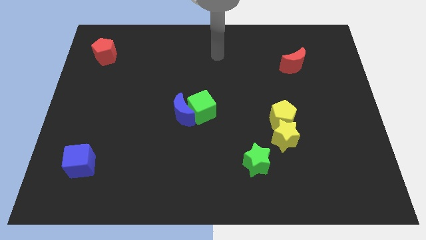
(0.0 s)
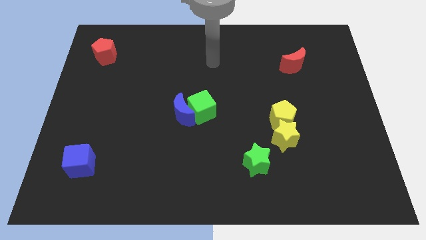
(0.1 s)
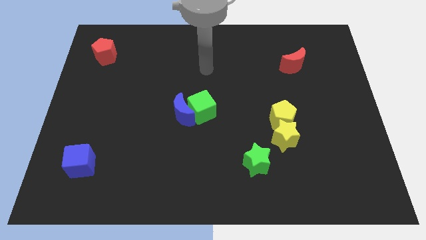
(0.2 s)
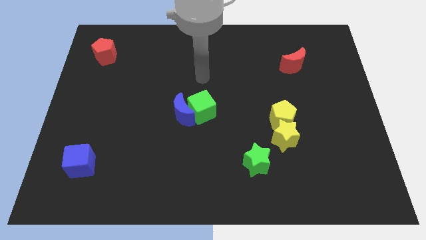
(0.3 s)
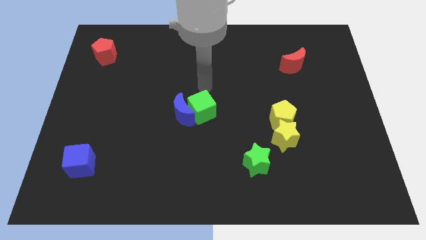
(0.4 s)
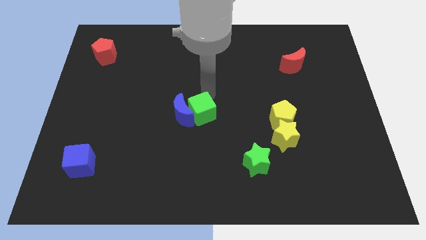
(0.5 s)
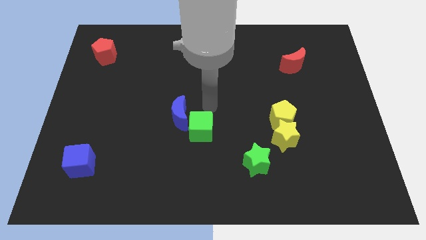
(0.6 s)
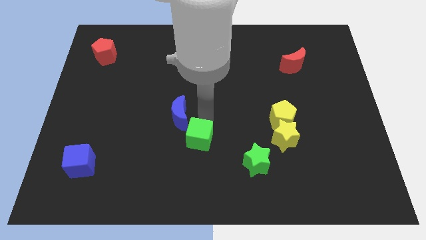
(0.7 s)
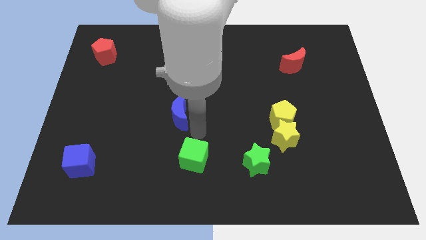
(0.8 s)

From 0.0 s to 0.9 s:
pull the blue moon apart from the green cube

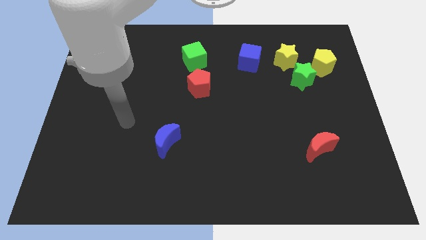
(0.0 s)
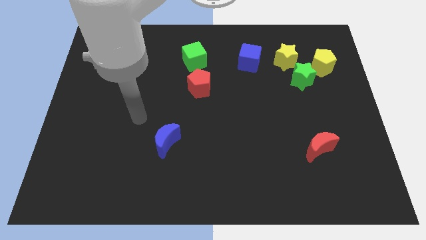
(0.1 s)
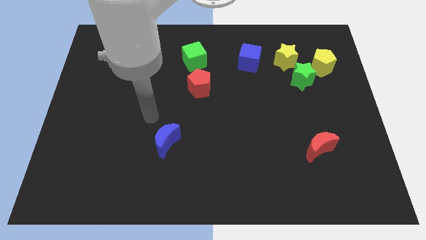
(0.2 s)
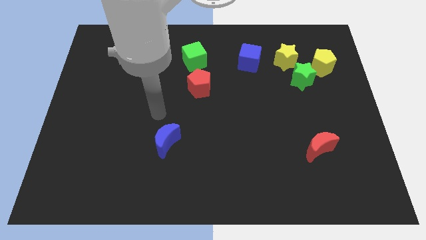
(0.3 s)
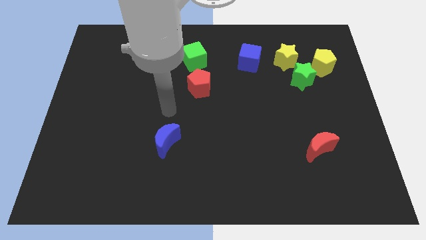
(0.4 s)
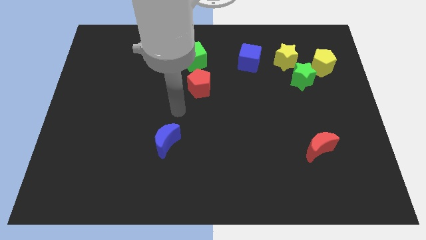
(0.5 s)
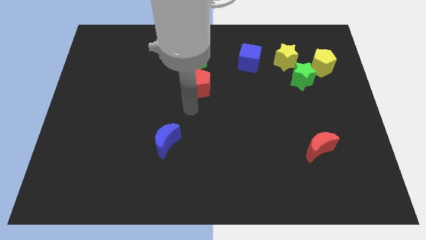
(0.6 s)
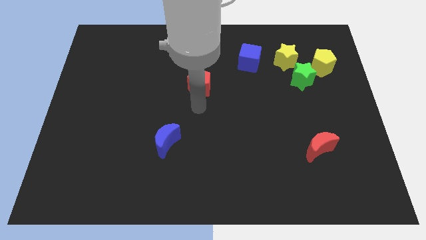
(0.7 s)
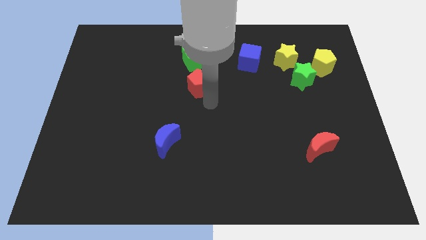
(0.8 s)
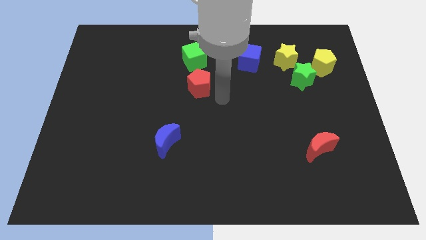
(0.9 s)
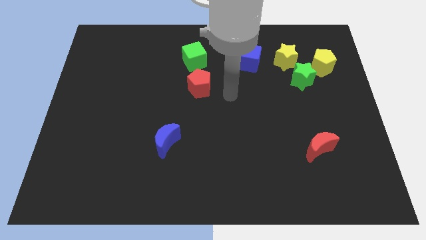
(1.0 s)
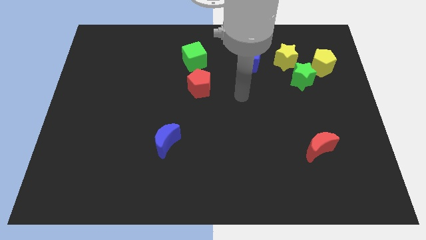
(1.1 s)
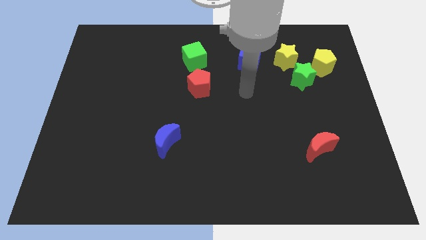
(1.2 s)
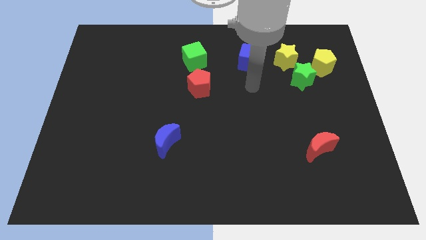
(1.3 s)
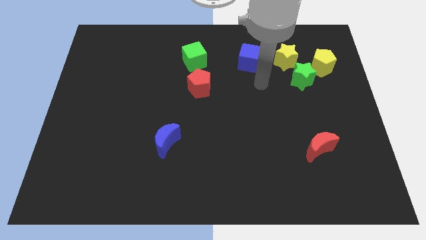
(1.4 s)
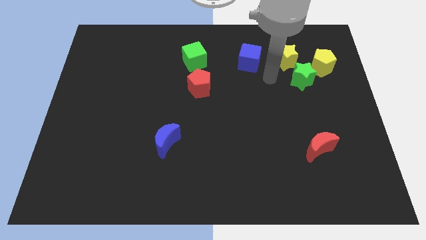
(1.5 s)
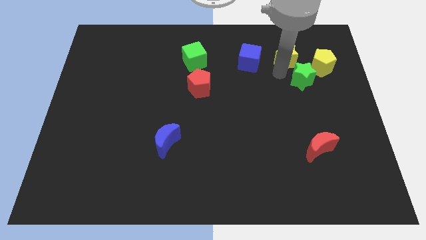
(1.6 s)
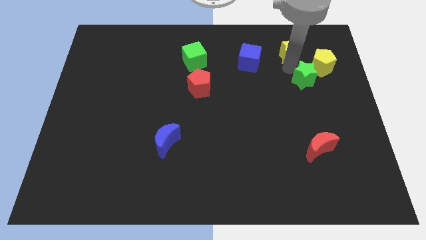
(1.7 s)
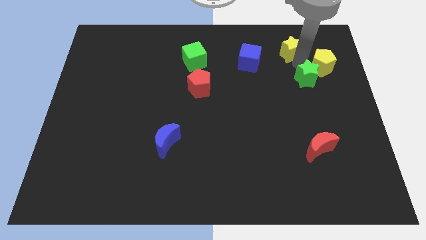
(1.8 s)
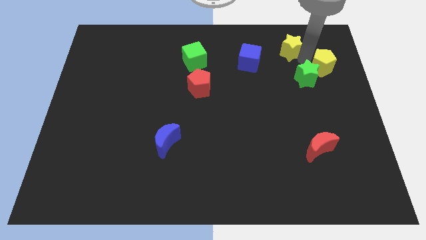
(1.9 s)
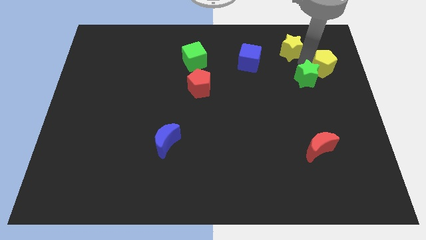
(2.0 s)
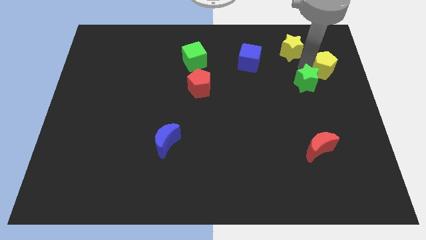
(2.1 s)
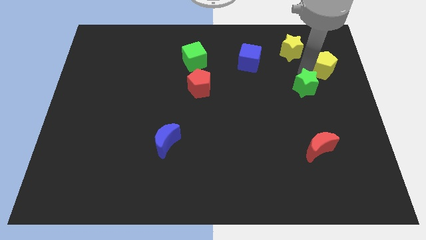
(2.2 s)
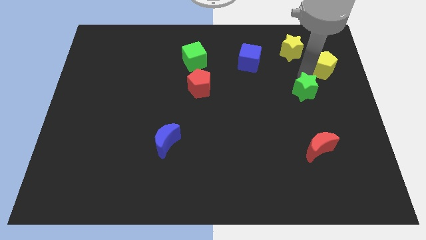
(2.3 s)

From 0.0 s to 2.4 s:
move the green star away from the yellow pentagon and yellow star

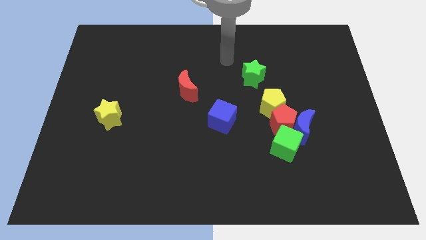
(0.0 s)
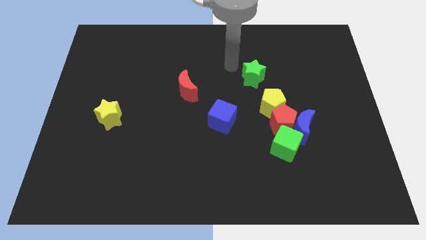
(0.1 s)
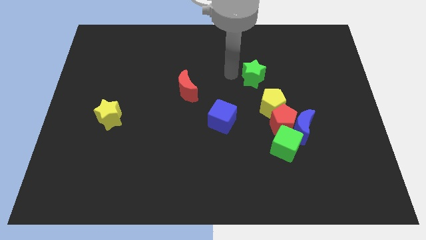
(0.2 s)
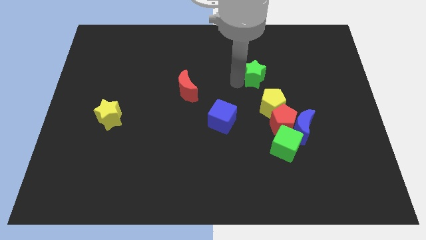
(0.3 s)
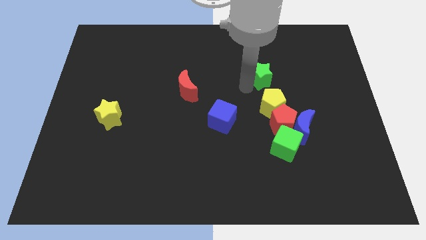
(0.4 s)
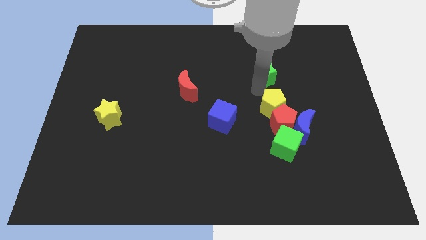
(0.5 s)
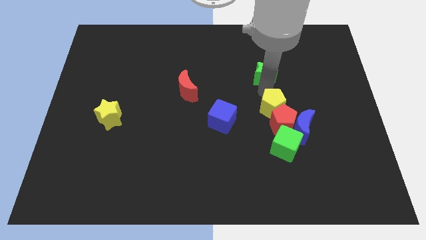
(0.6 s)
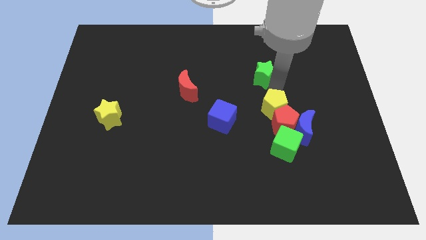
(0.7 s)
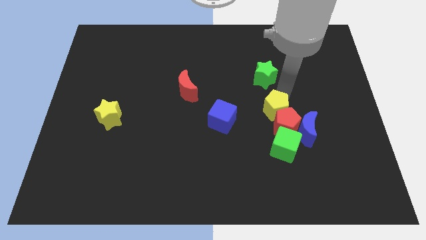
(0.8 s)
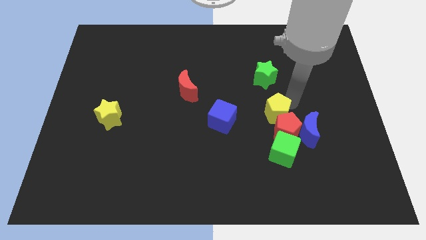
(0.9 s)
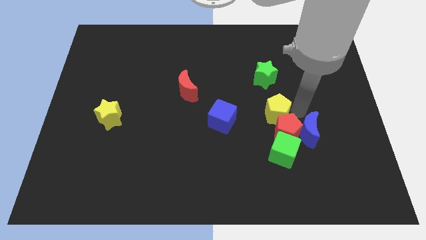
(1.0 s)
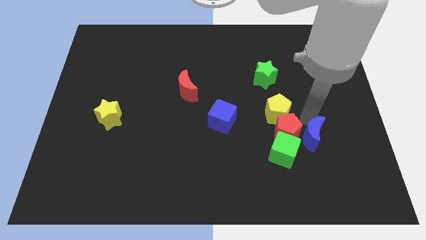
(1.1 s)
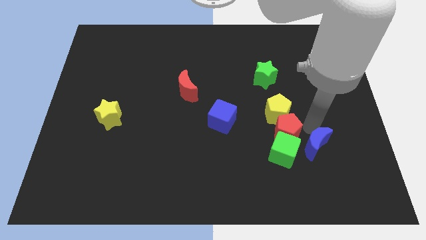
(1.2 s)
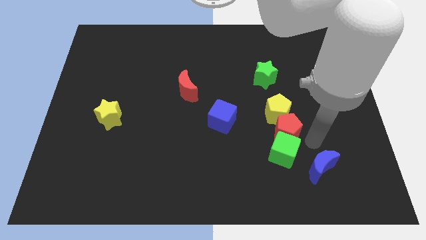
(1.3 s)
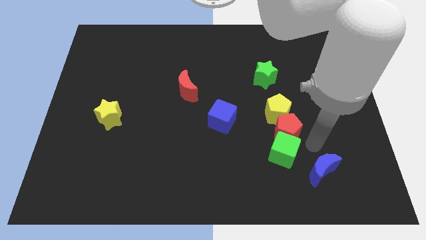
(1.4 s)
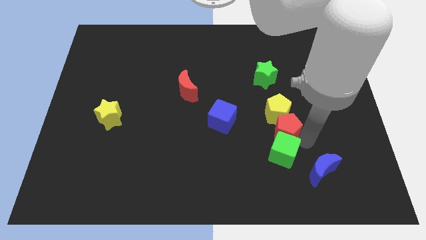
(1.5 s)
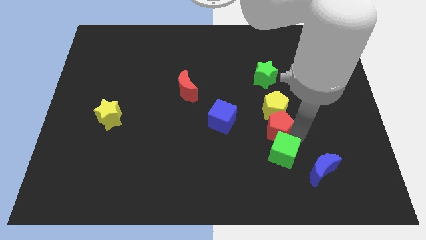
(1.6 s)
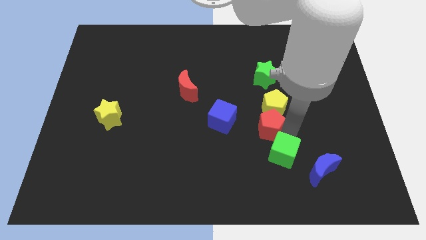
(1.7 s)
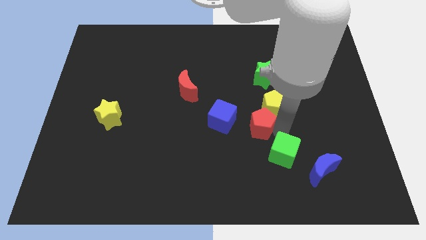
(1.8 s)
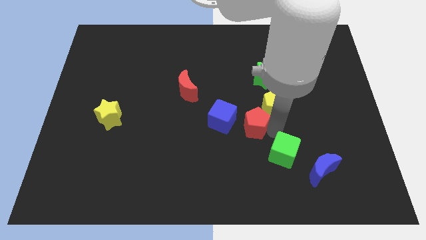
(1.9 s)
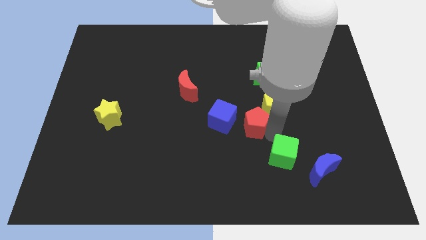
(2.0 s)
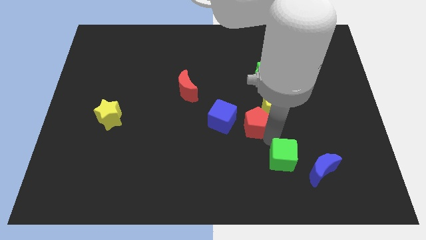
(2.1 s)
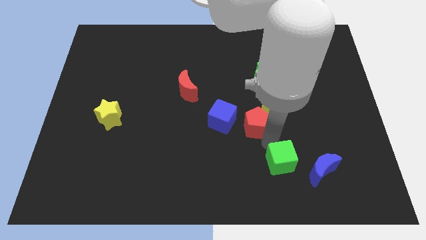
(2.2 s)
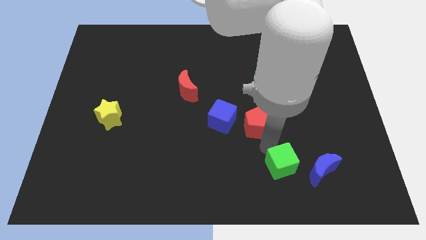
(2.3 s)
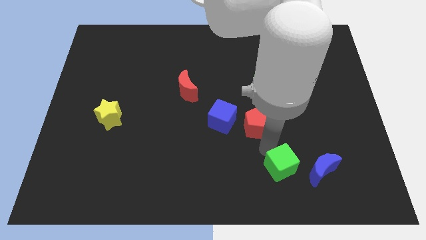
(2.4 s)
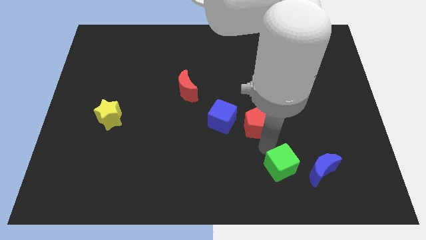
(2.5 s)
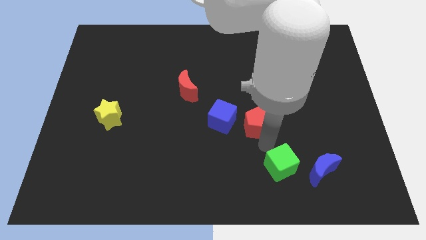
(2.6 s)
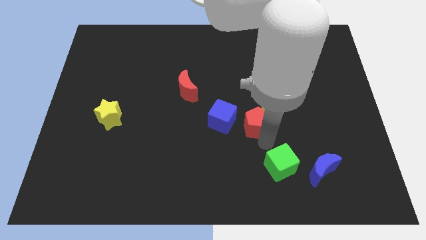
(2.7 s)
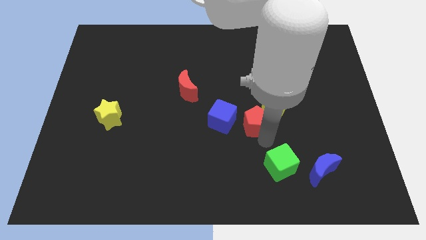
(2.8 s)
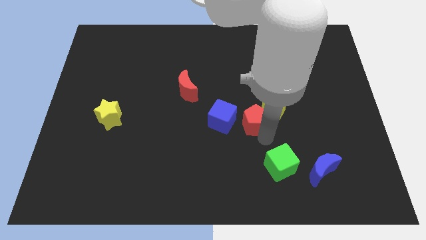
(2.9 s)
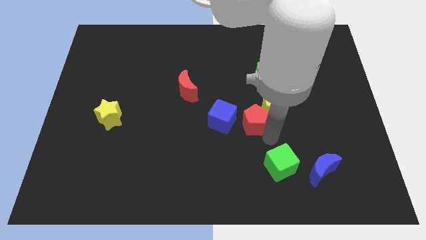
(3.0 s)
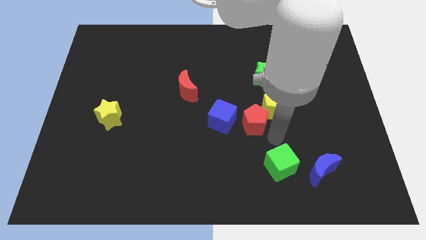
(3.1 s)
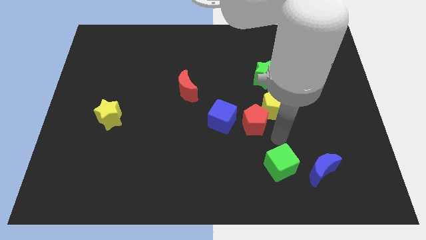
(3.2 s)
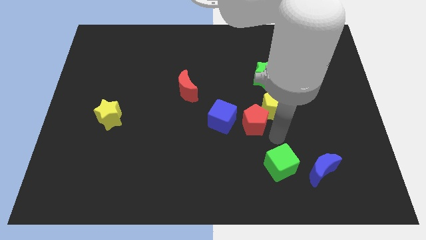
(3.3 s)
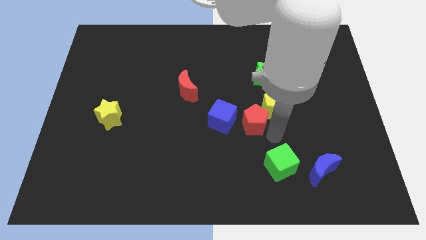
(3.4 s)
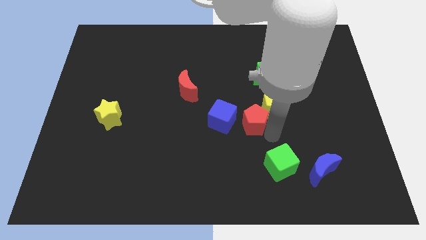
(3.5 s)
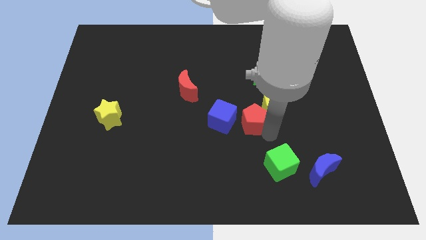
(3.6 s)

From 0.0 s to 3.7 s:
move the red pentagon away from the blue moon, yellow pentagon, and green cube

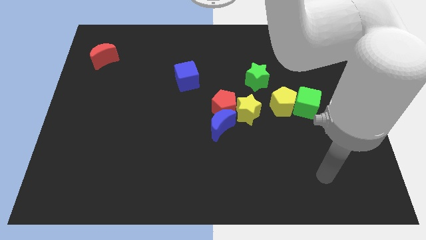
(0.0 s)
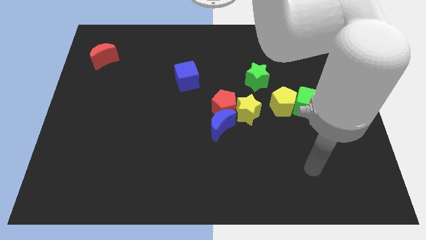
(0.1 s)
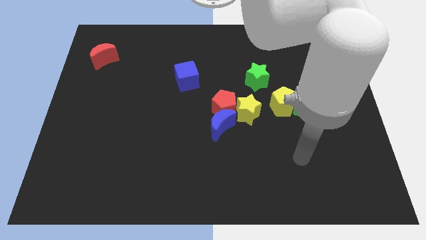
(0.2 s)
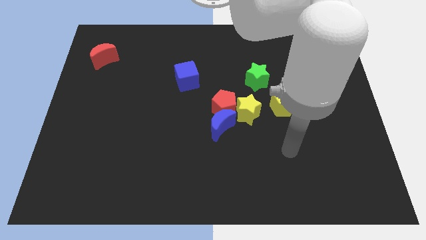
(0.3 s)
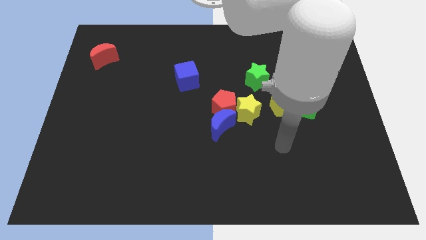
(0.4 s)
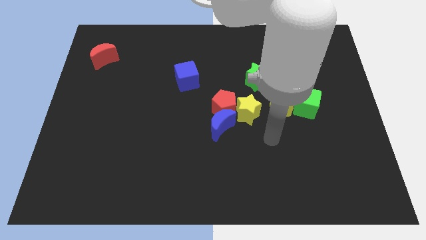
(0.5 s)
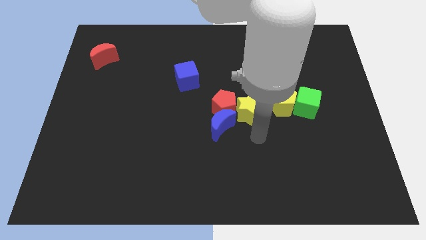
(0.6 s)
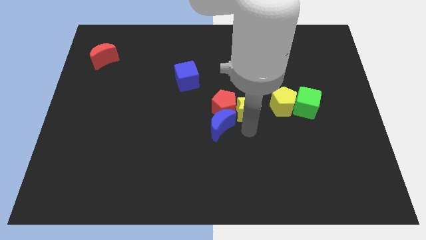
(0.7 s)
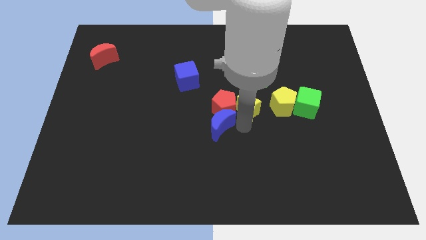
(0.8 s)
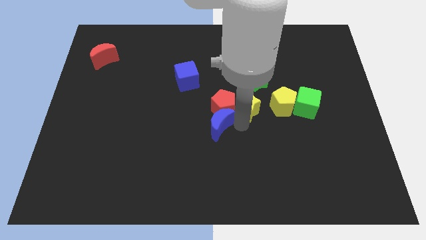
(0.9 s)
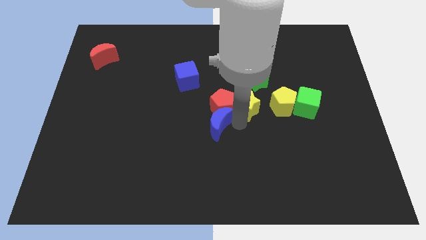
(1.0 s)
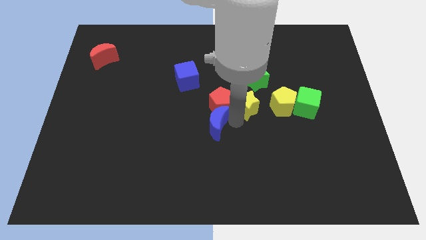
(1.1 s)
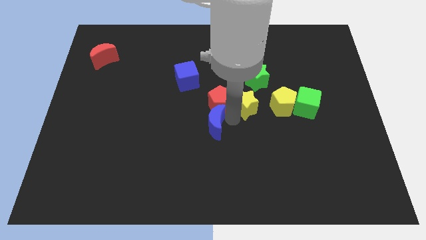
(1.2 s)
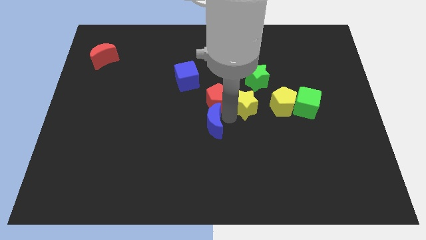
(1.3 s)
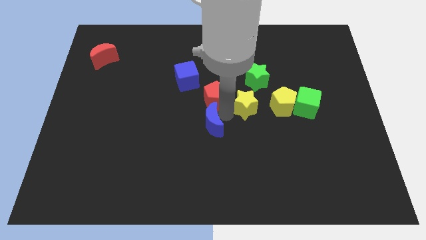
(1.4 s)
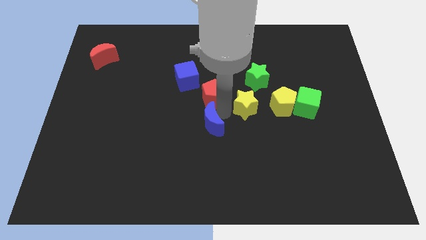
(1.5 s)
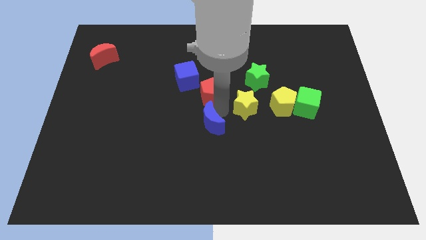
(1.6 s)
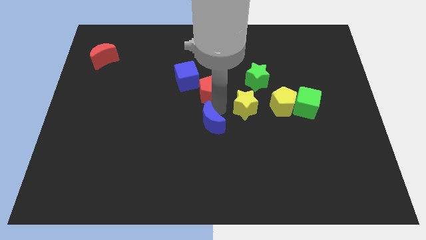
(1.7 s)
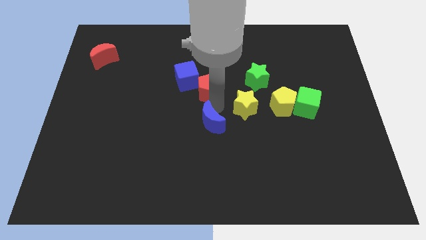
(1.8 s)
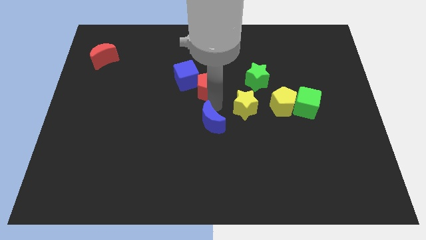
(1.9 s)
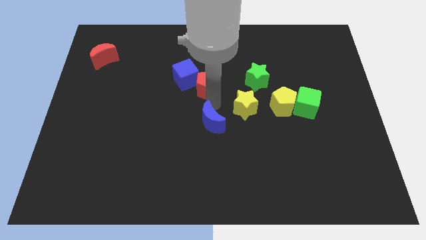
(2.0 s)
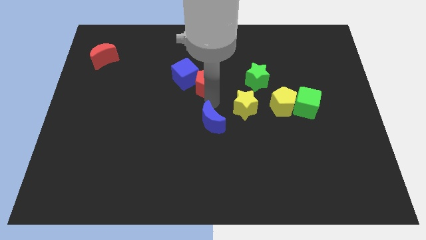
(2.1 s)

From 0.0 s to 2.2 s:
move the red pentagon away from the yellow star and blue moon

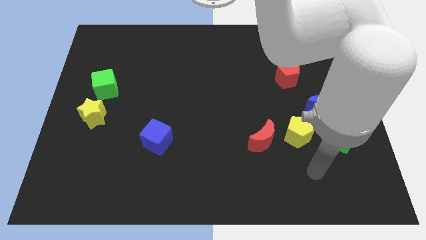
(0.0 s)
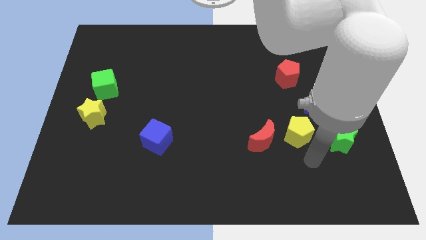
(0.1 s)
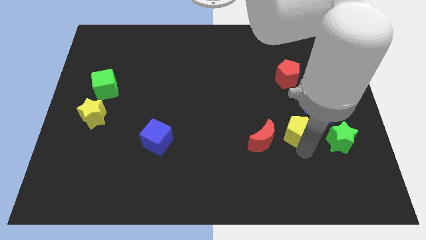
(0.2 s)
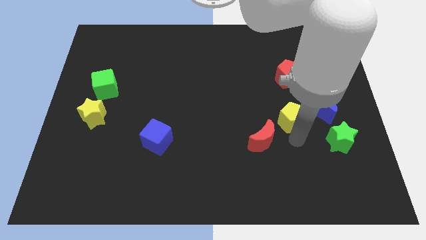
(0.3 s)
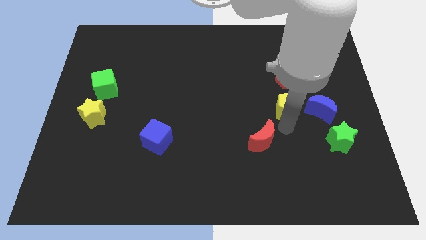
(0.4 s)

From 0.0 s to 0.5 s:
separate the red moon from the yellow pentagon
